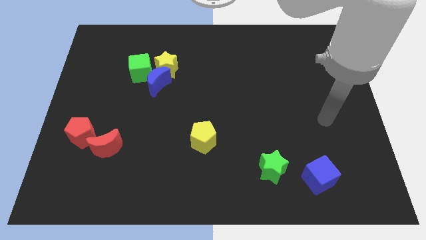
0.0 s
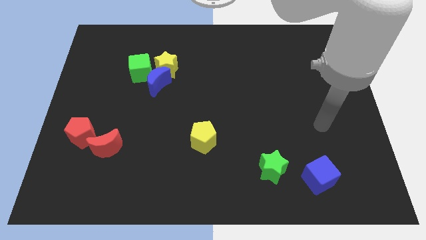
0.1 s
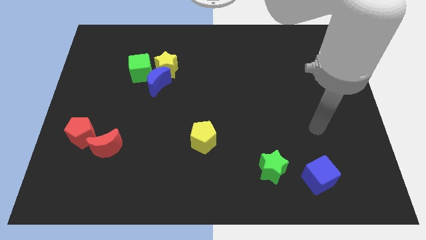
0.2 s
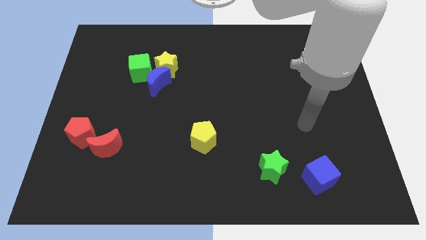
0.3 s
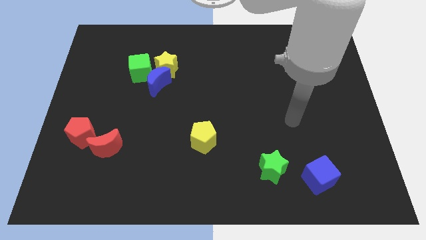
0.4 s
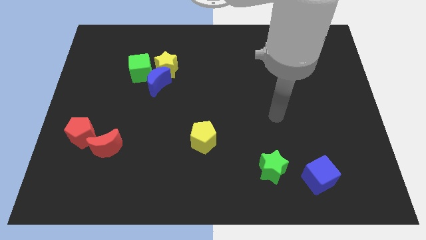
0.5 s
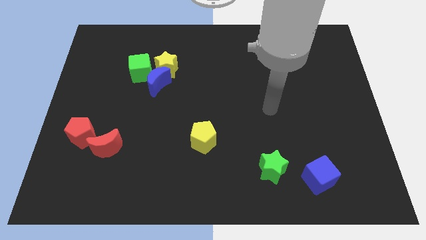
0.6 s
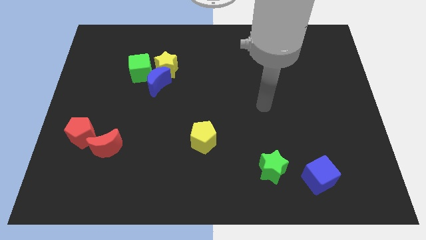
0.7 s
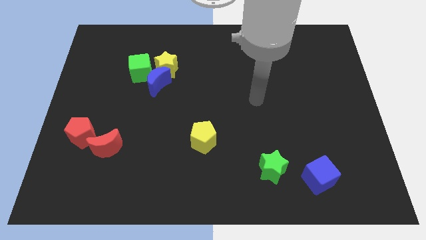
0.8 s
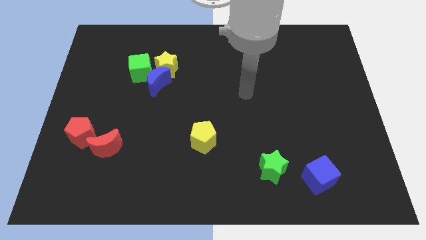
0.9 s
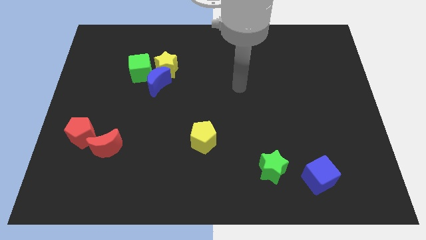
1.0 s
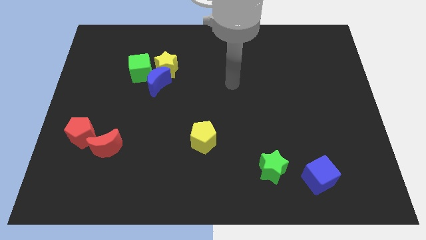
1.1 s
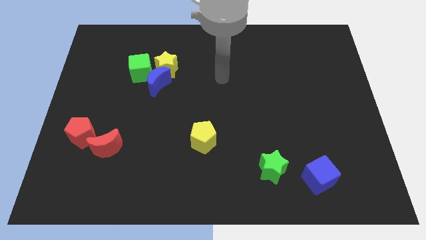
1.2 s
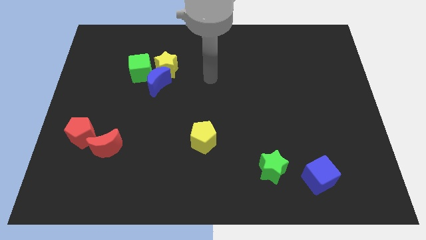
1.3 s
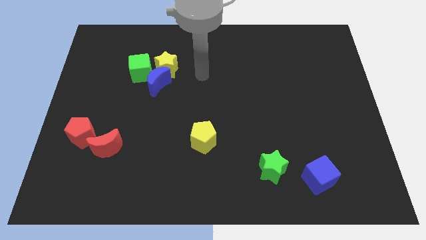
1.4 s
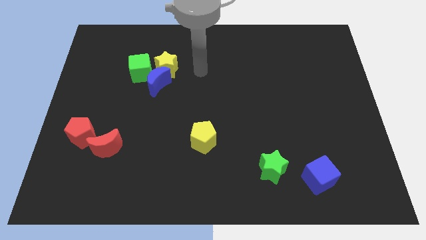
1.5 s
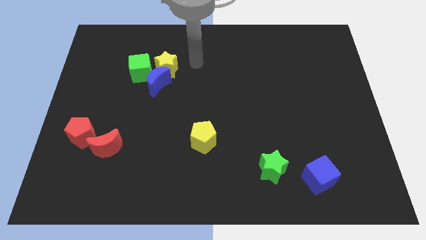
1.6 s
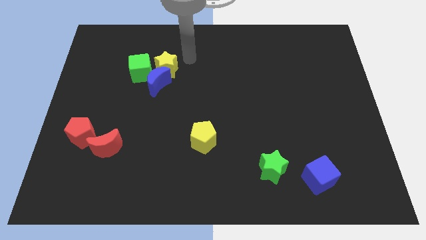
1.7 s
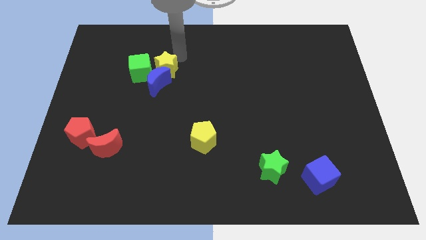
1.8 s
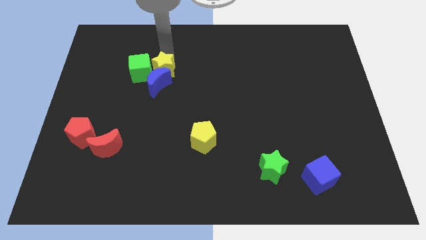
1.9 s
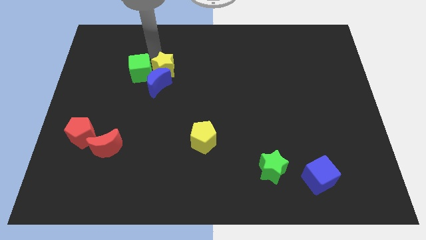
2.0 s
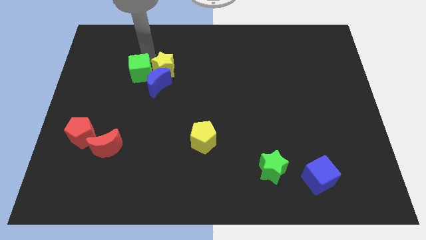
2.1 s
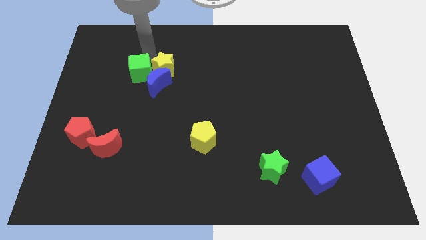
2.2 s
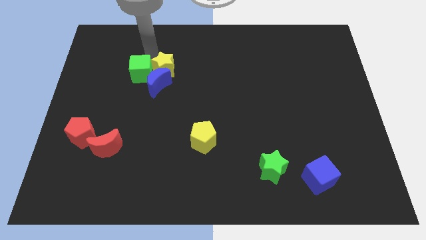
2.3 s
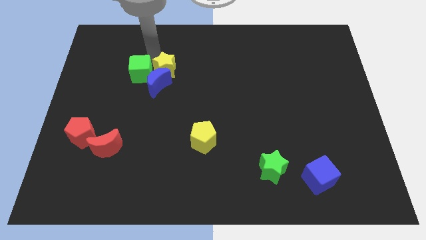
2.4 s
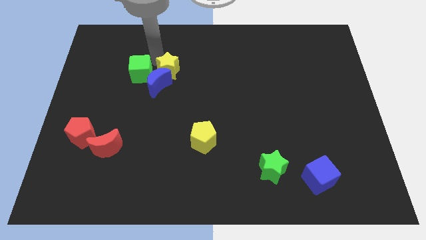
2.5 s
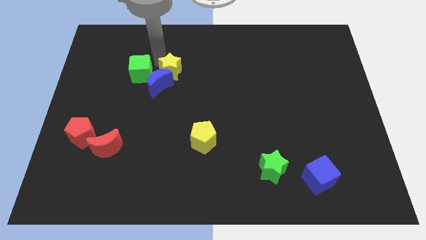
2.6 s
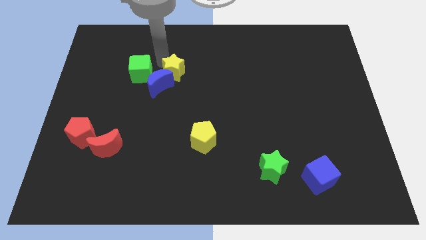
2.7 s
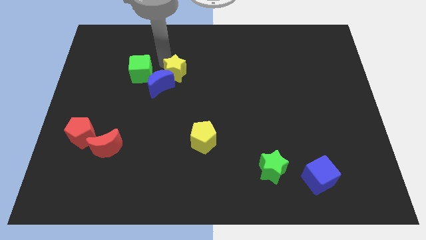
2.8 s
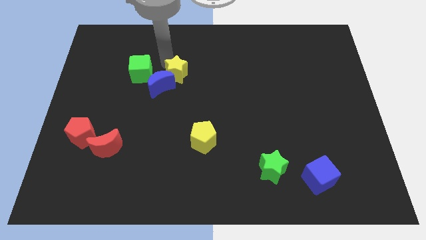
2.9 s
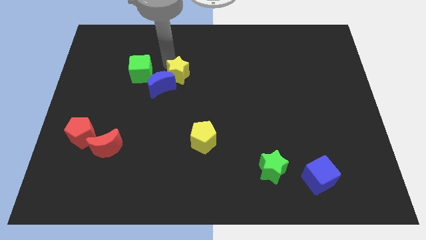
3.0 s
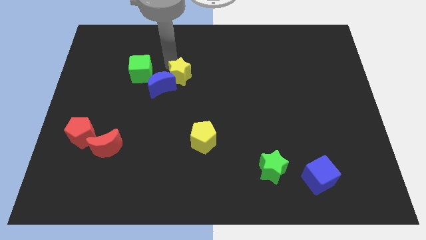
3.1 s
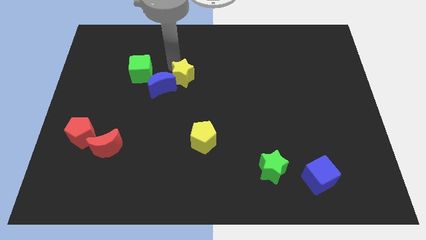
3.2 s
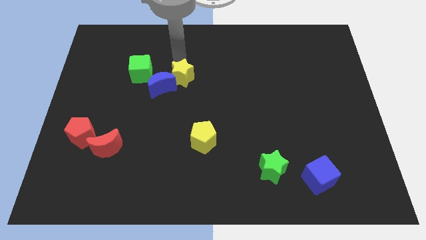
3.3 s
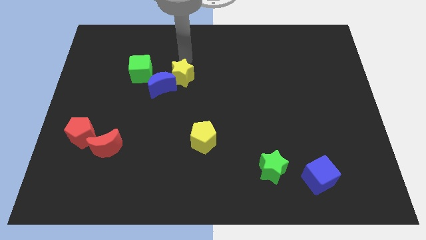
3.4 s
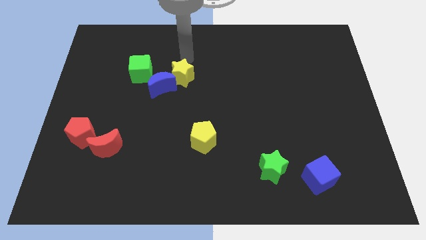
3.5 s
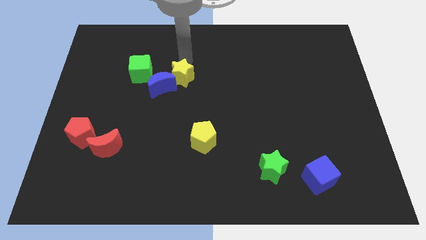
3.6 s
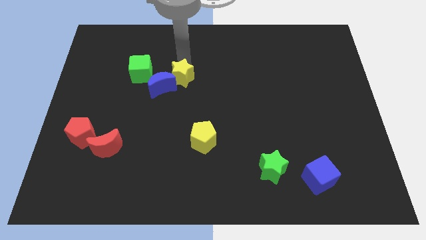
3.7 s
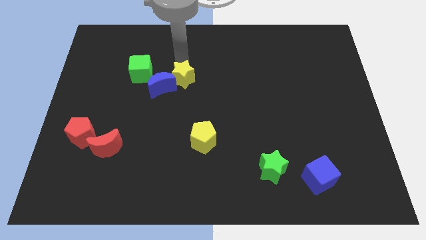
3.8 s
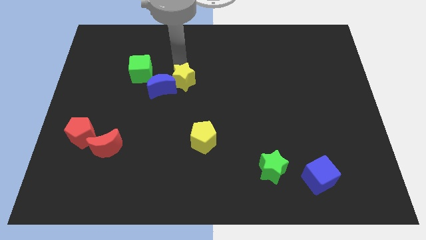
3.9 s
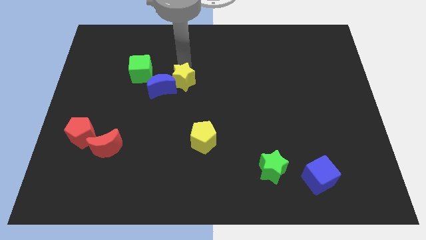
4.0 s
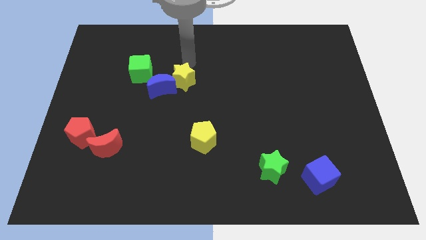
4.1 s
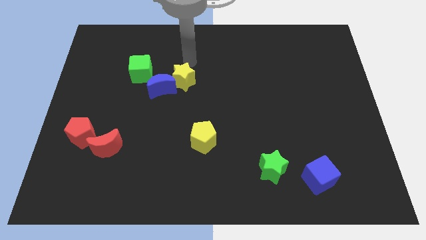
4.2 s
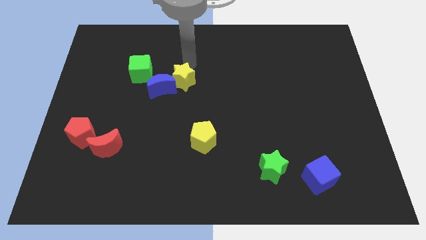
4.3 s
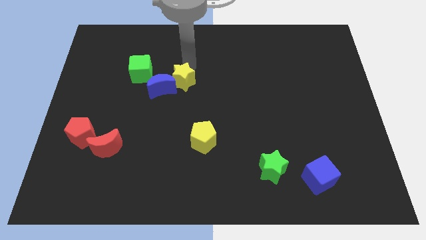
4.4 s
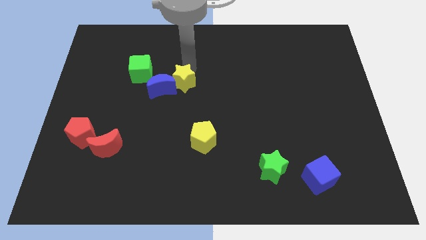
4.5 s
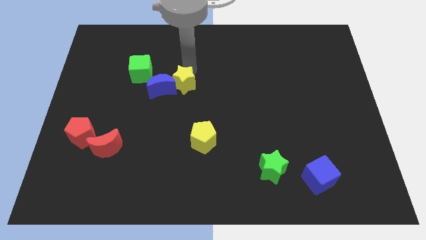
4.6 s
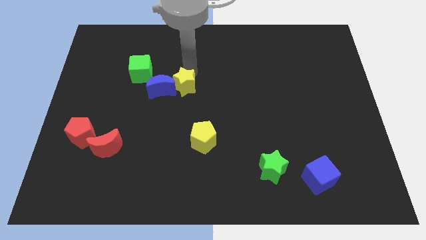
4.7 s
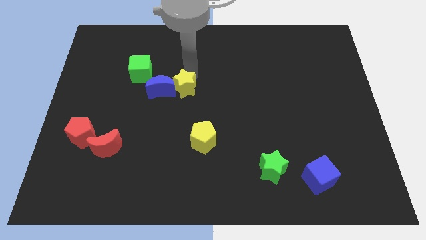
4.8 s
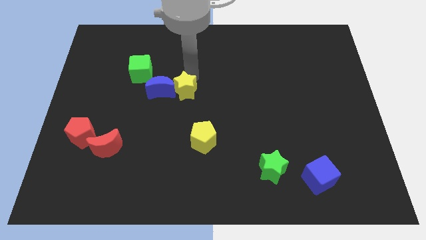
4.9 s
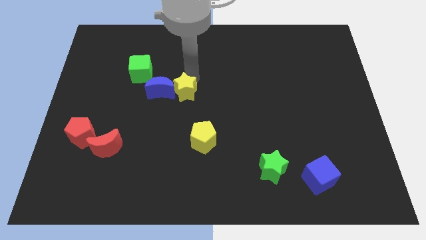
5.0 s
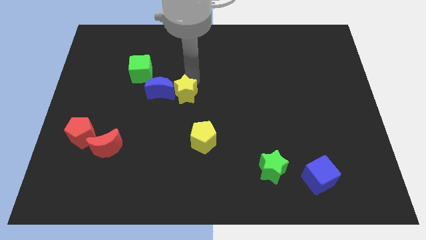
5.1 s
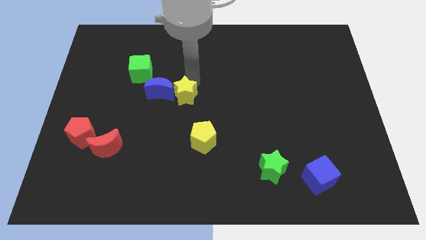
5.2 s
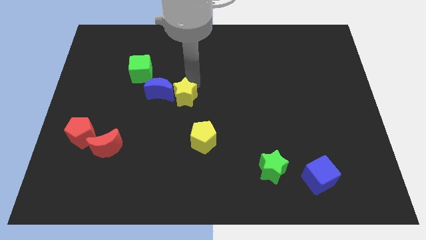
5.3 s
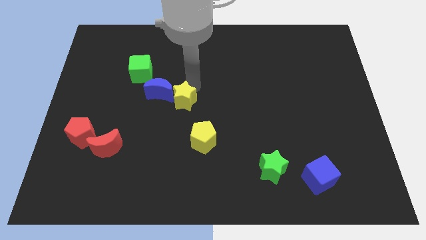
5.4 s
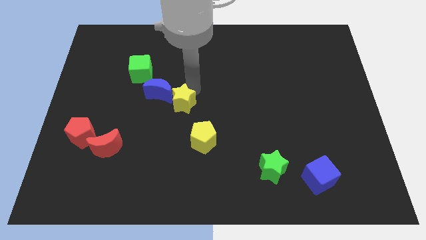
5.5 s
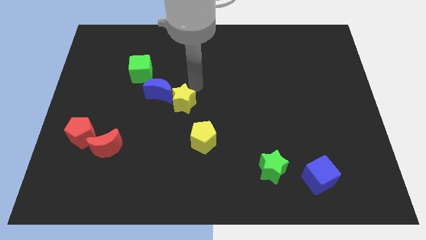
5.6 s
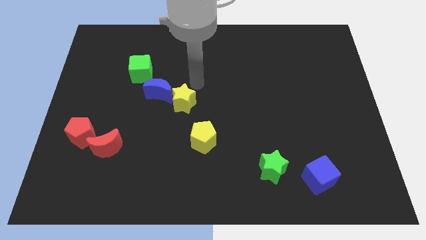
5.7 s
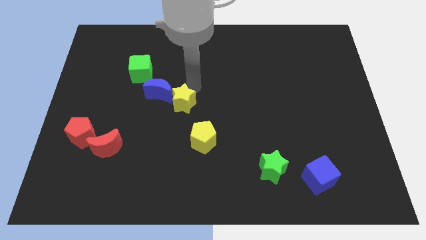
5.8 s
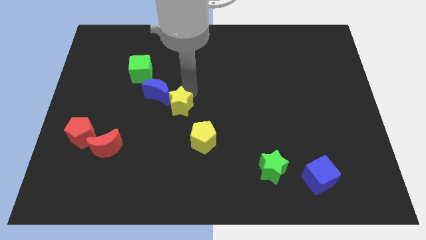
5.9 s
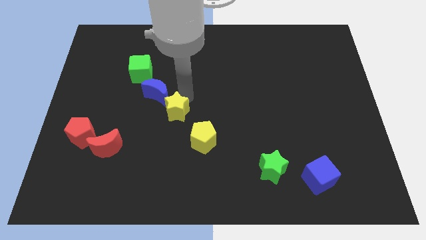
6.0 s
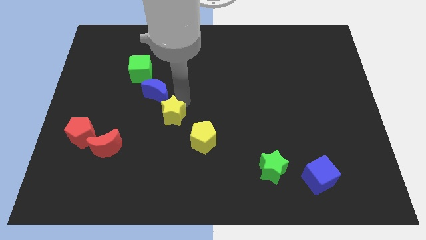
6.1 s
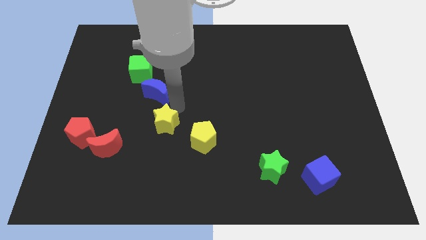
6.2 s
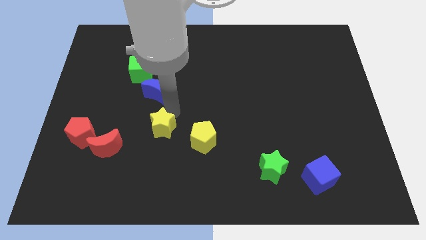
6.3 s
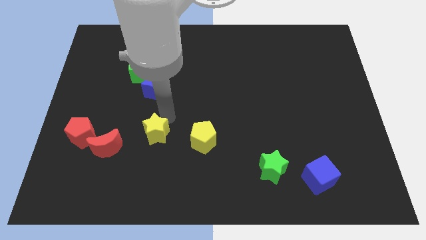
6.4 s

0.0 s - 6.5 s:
move the yellow star to the right of the red moon
